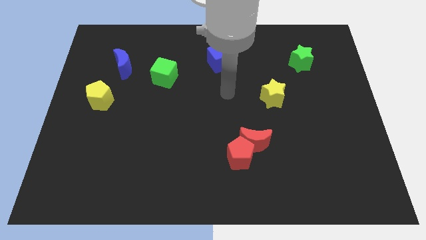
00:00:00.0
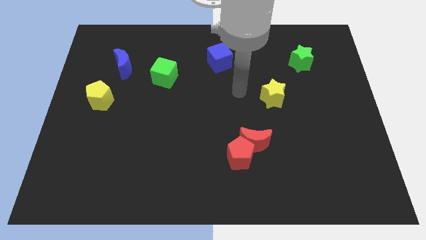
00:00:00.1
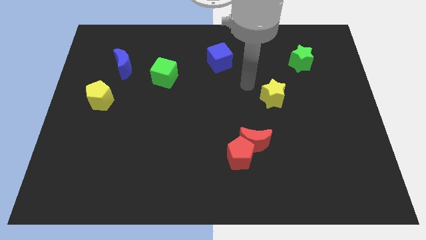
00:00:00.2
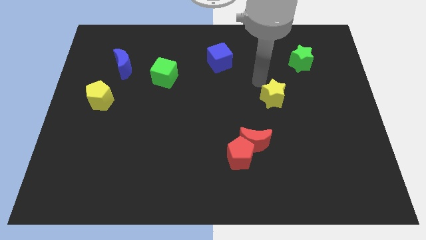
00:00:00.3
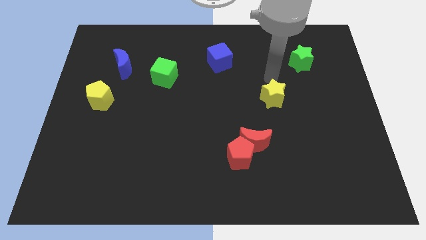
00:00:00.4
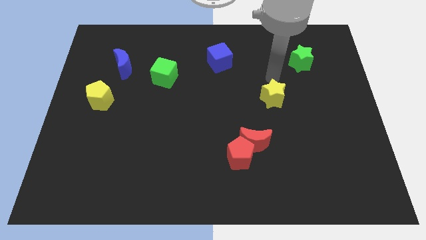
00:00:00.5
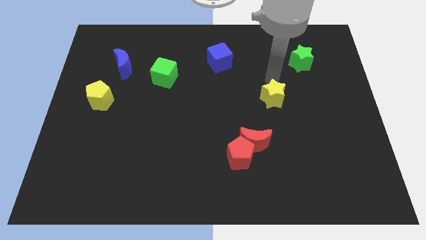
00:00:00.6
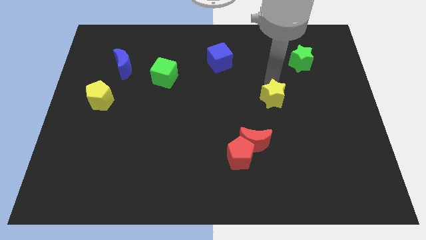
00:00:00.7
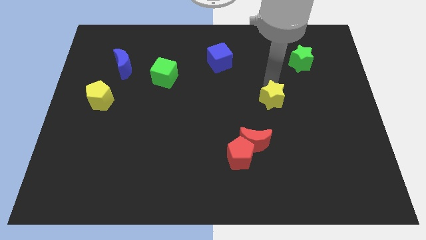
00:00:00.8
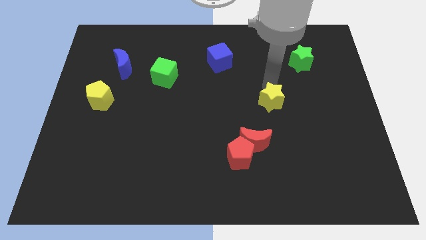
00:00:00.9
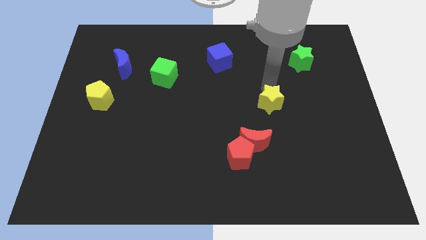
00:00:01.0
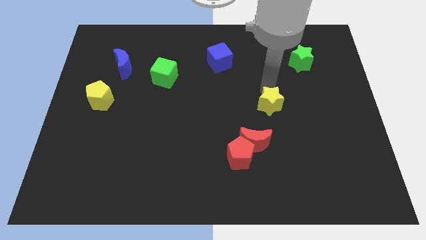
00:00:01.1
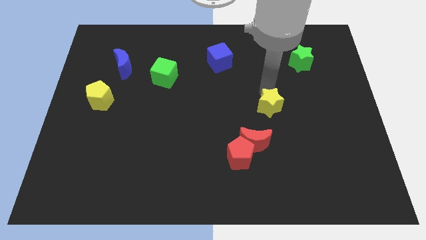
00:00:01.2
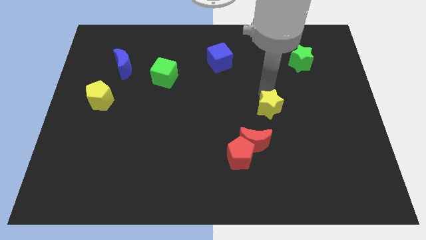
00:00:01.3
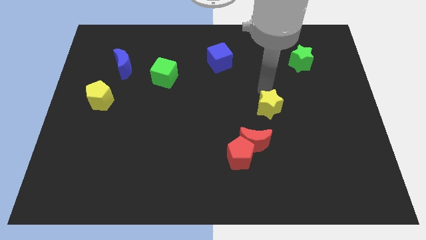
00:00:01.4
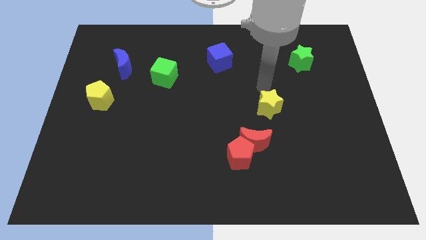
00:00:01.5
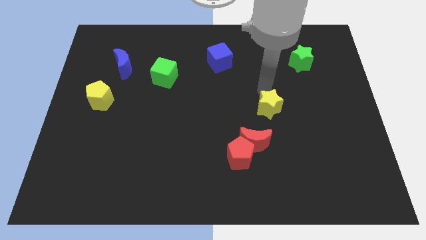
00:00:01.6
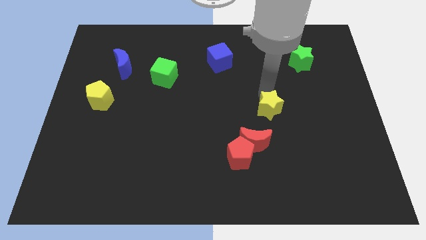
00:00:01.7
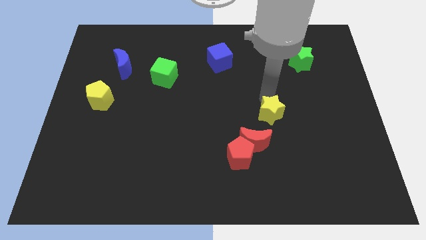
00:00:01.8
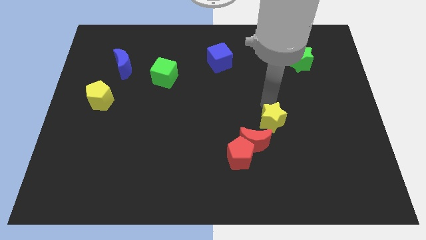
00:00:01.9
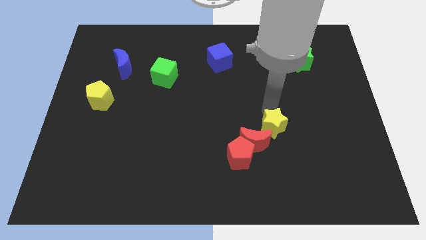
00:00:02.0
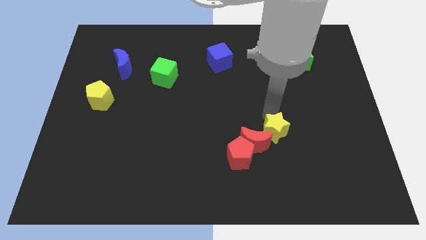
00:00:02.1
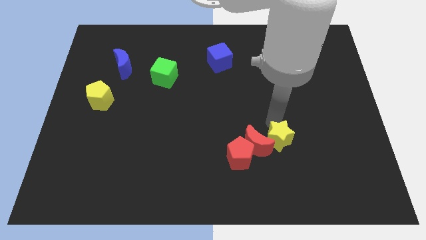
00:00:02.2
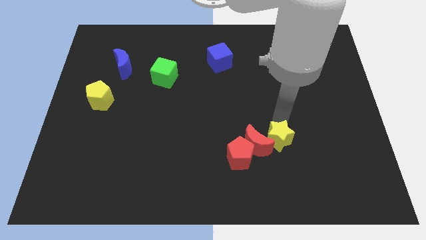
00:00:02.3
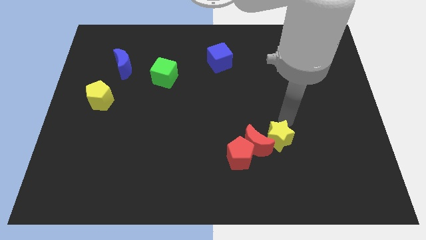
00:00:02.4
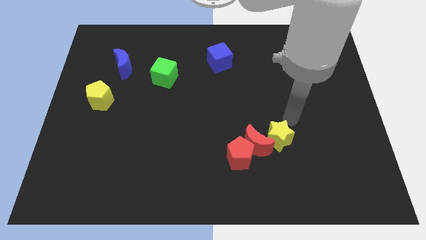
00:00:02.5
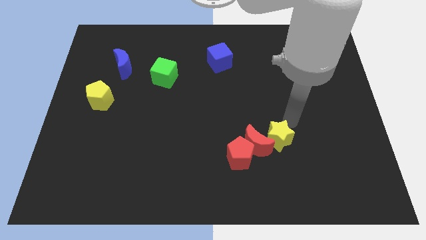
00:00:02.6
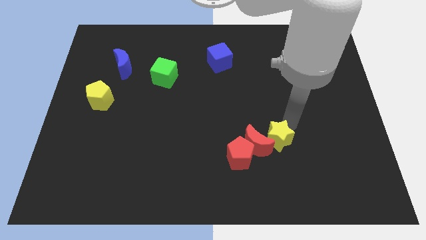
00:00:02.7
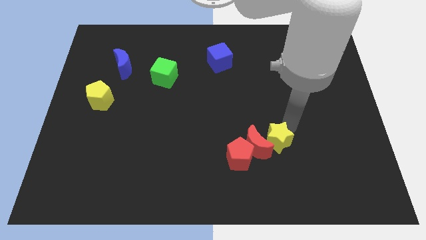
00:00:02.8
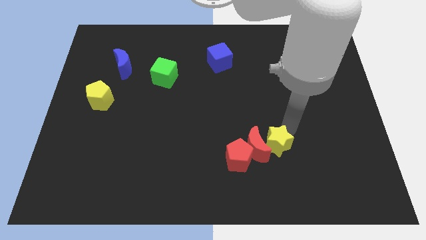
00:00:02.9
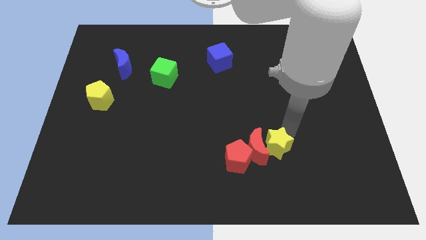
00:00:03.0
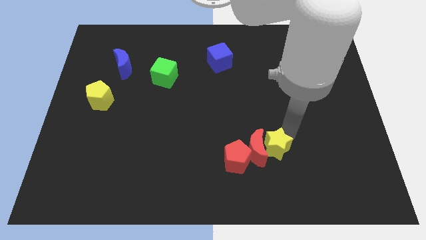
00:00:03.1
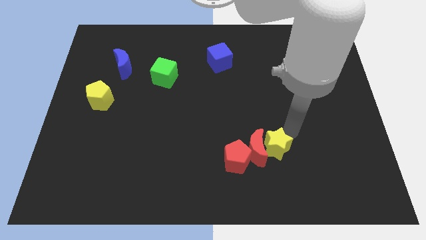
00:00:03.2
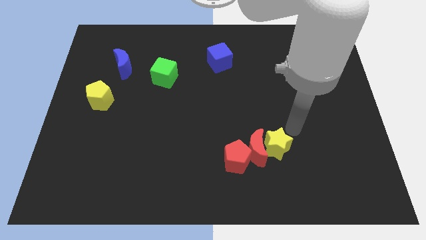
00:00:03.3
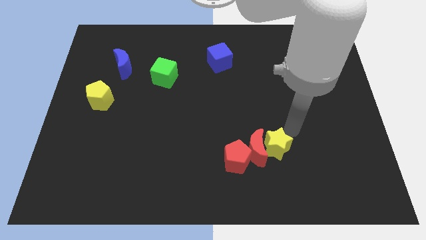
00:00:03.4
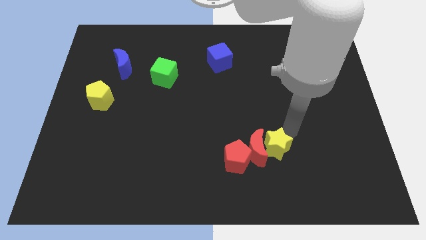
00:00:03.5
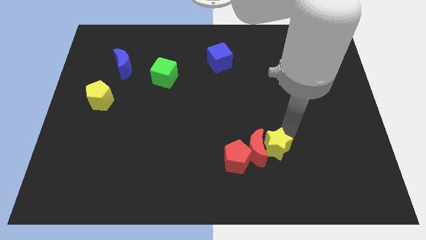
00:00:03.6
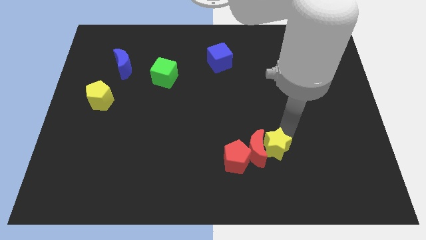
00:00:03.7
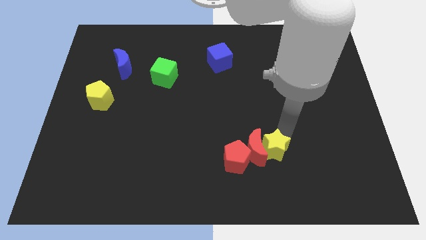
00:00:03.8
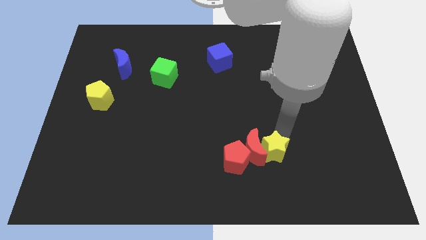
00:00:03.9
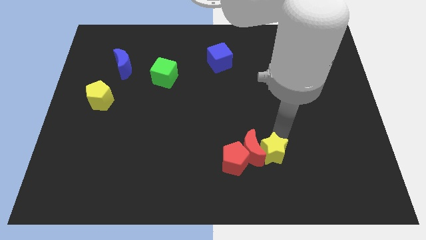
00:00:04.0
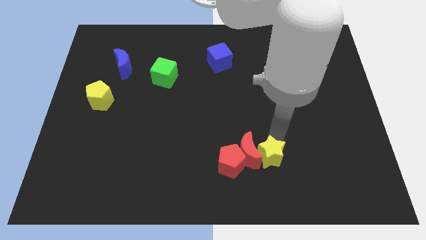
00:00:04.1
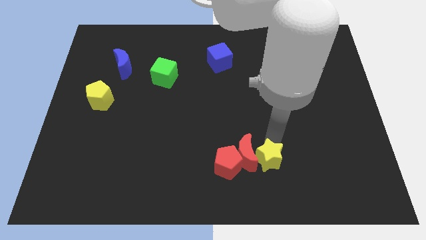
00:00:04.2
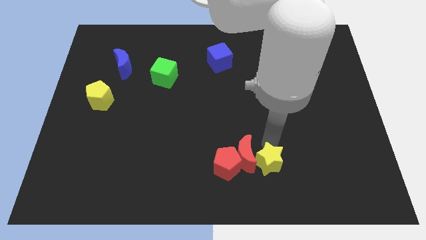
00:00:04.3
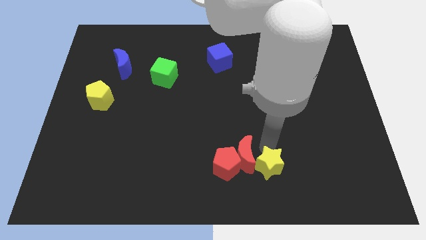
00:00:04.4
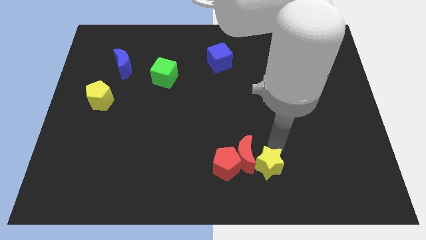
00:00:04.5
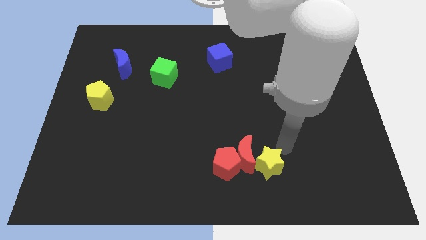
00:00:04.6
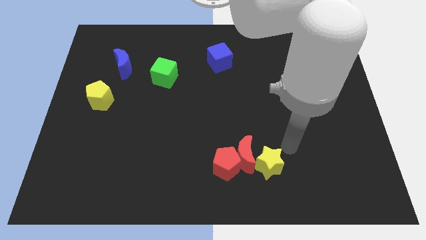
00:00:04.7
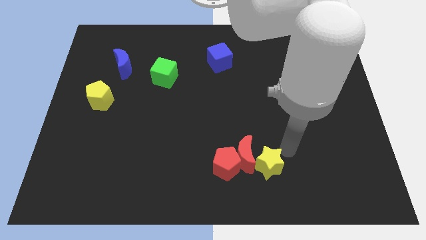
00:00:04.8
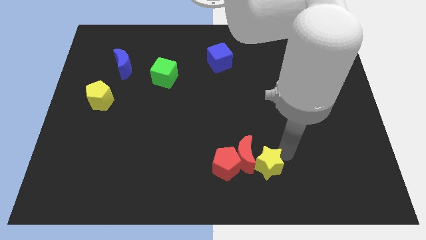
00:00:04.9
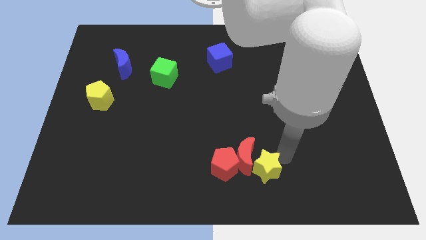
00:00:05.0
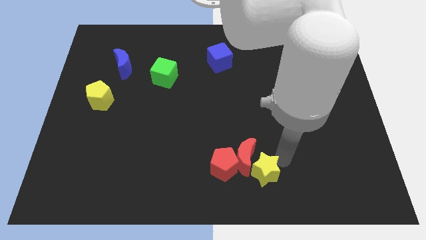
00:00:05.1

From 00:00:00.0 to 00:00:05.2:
slide the yellow star to the bottom

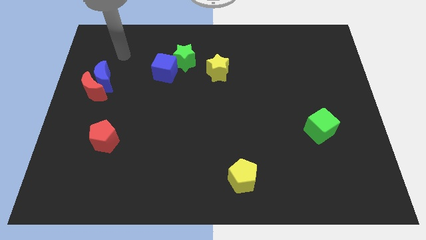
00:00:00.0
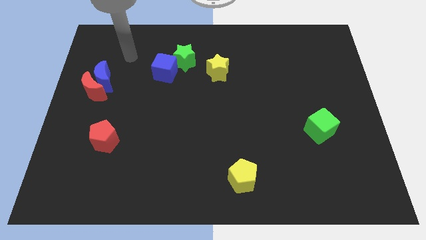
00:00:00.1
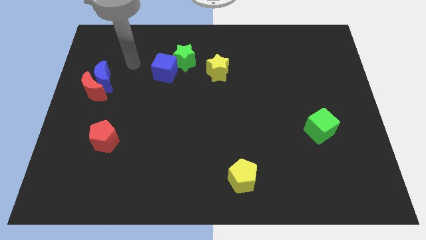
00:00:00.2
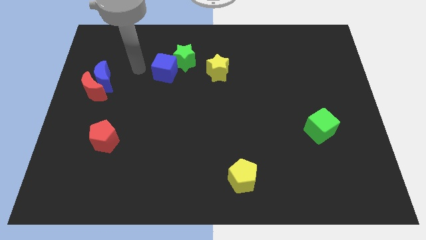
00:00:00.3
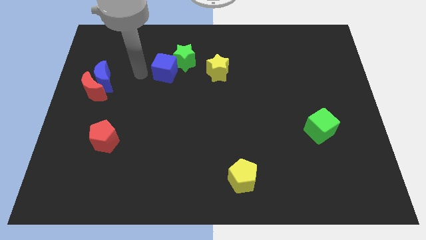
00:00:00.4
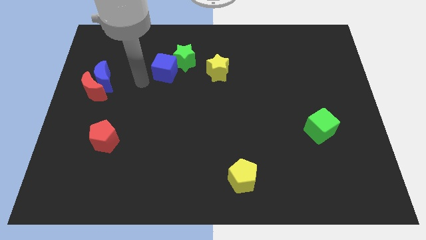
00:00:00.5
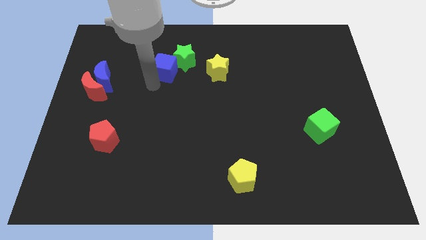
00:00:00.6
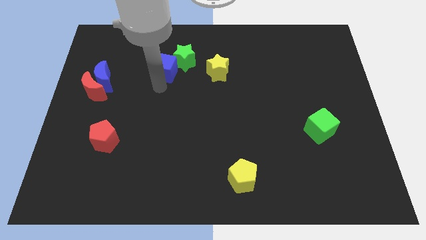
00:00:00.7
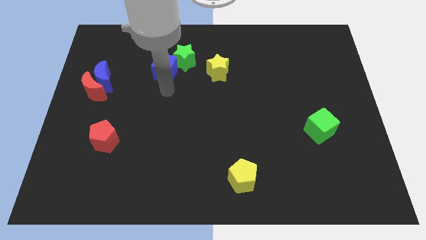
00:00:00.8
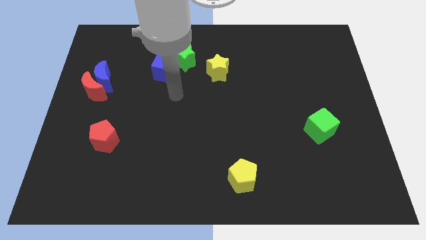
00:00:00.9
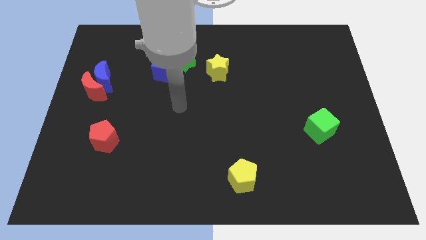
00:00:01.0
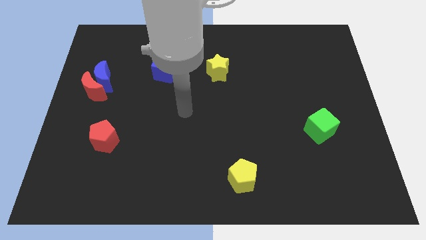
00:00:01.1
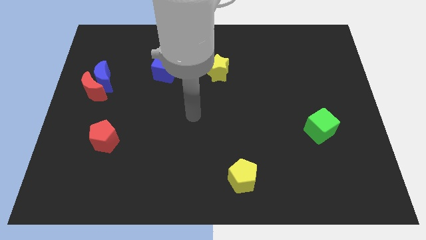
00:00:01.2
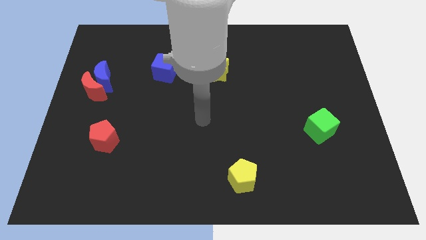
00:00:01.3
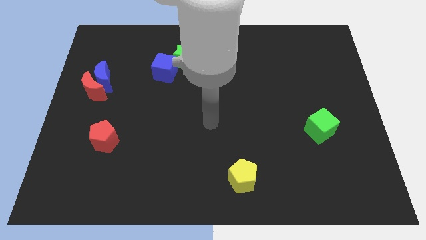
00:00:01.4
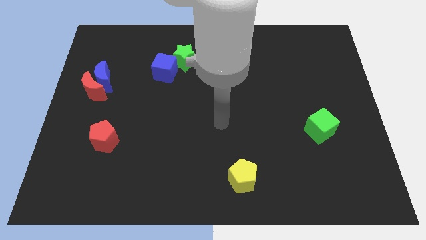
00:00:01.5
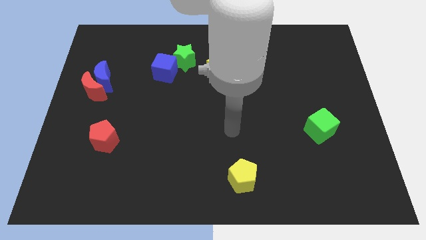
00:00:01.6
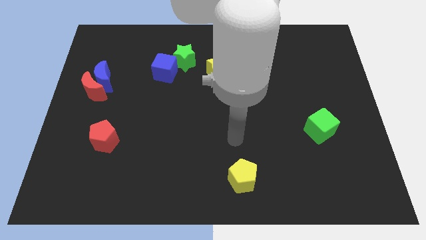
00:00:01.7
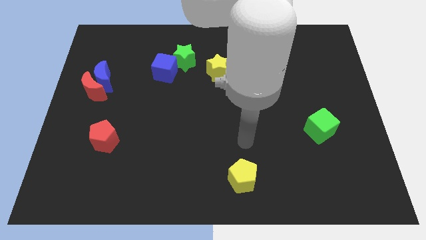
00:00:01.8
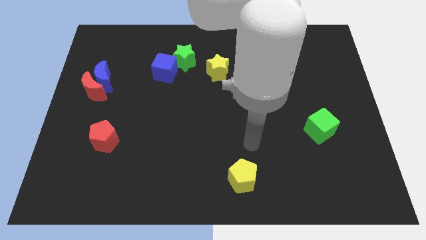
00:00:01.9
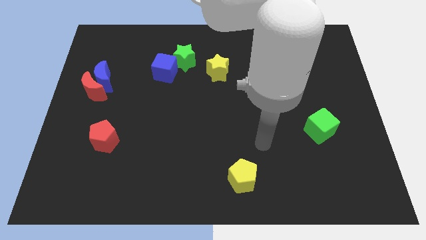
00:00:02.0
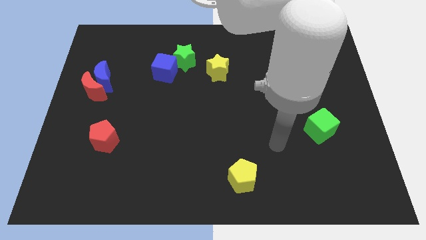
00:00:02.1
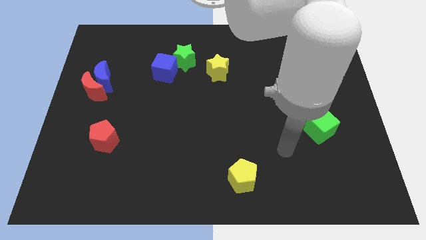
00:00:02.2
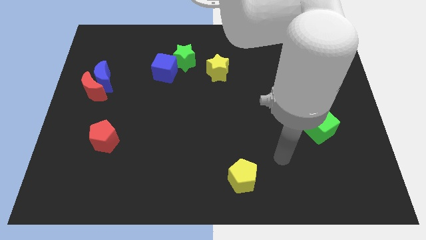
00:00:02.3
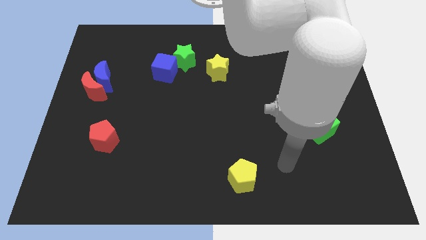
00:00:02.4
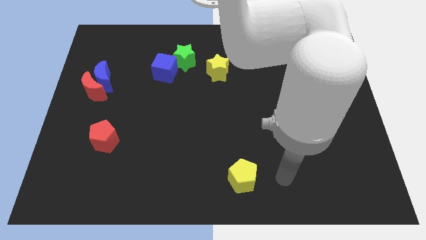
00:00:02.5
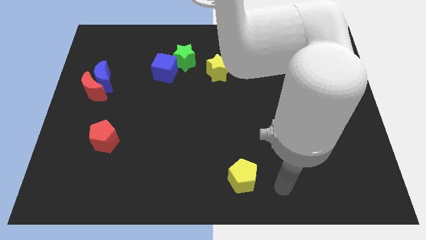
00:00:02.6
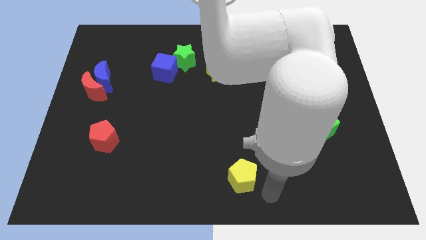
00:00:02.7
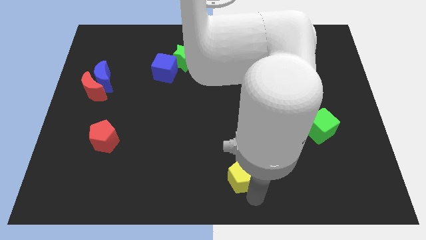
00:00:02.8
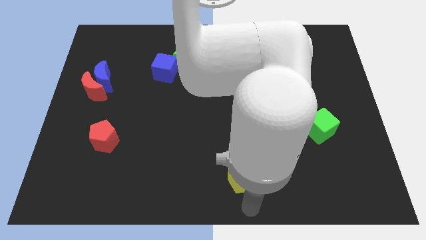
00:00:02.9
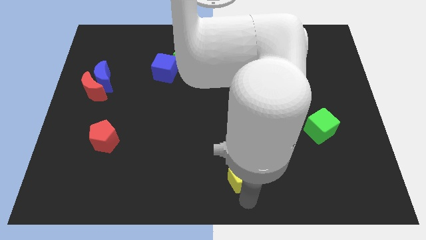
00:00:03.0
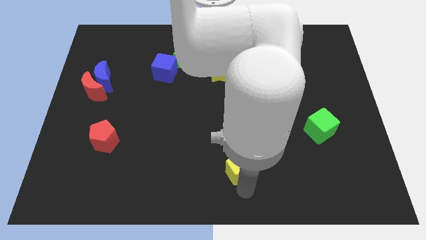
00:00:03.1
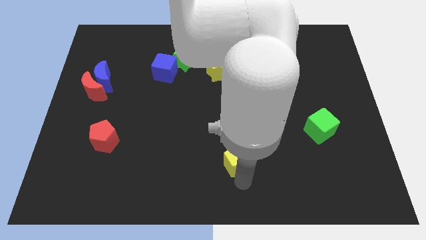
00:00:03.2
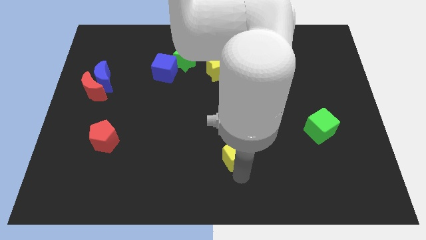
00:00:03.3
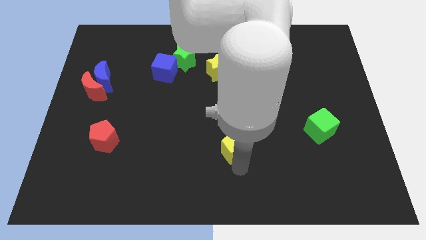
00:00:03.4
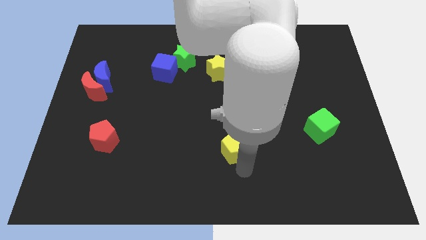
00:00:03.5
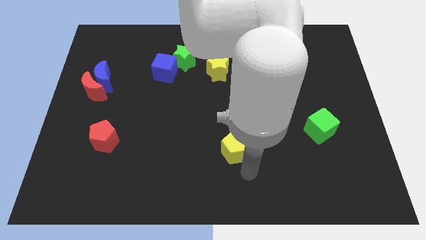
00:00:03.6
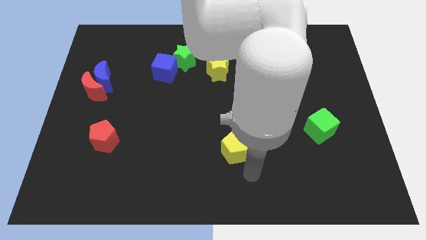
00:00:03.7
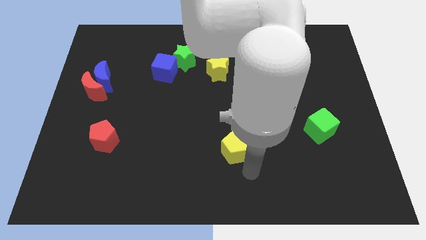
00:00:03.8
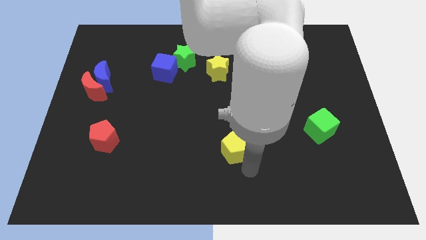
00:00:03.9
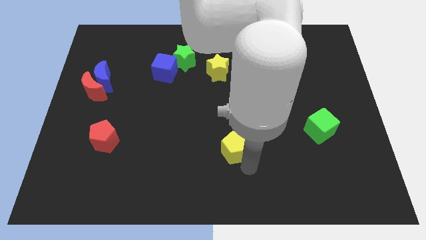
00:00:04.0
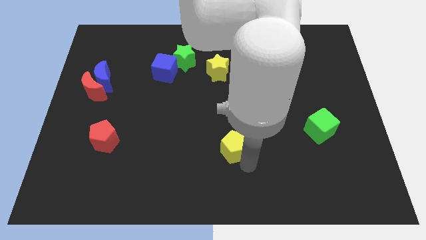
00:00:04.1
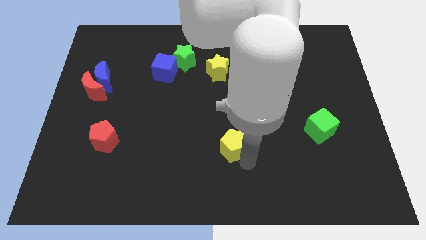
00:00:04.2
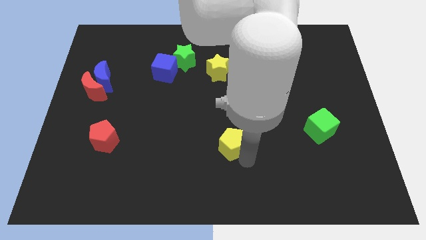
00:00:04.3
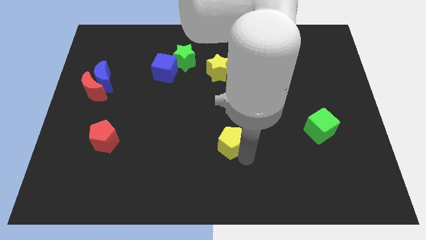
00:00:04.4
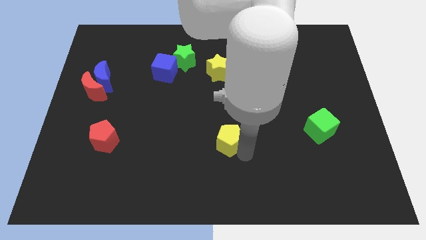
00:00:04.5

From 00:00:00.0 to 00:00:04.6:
put the yellow pentagon to the center of the board
